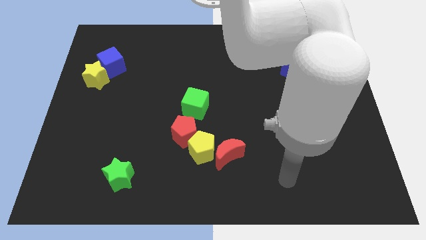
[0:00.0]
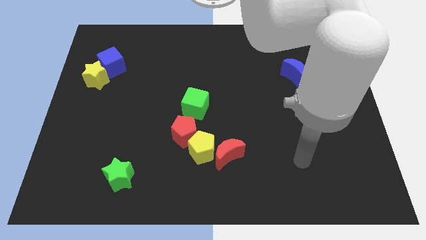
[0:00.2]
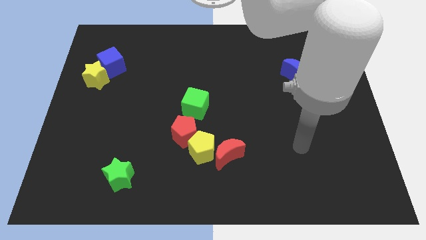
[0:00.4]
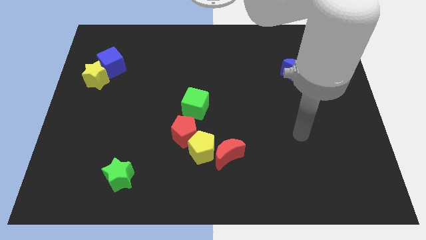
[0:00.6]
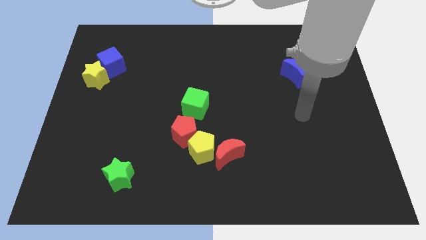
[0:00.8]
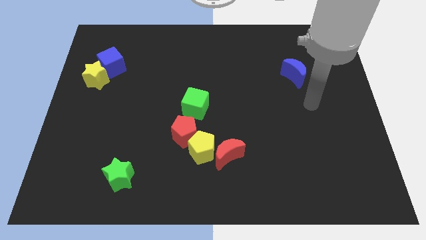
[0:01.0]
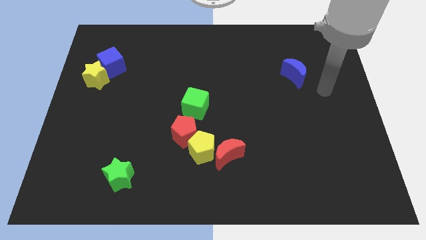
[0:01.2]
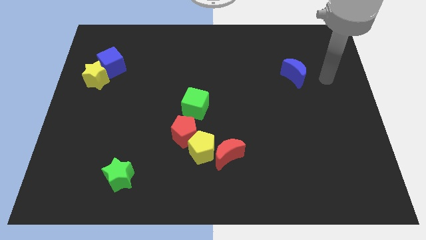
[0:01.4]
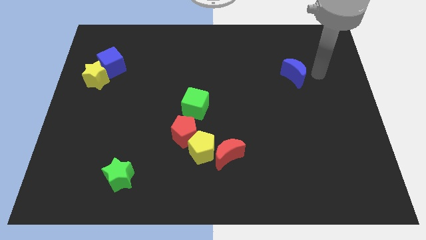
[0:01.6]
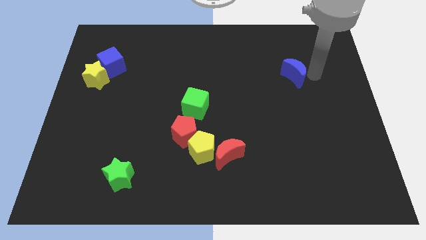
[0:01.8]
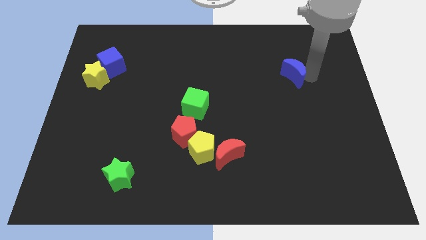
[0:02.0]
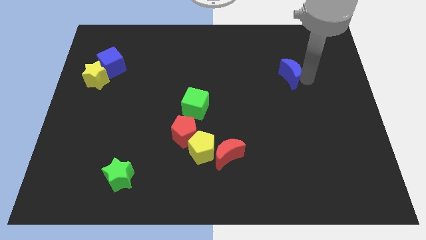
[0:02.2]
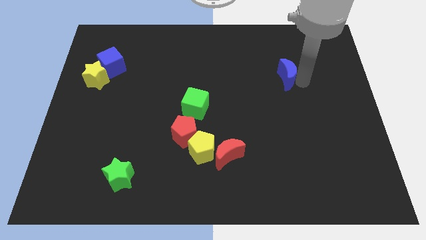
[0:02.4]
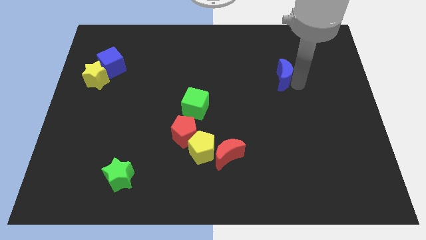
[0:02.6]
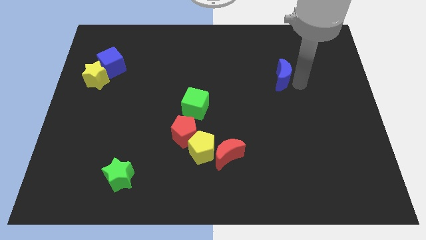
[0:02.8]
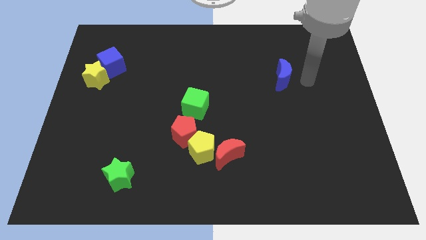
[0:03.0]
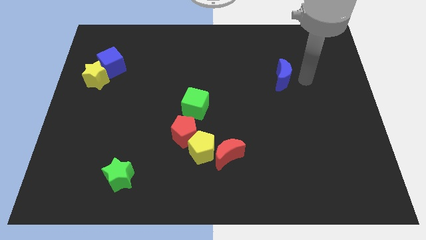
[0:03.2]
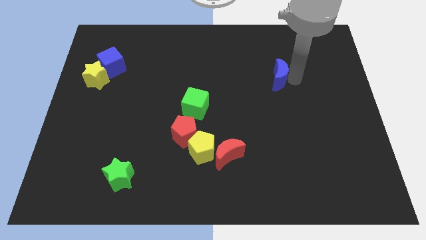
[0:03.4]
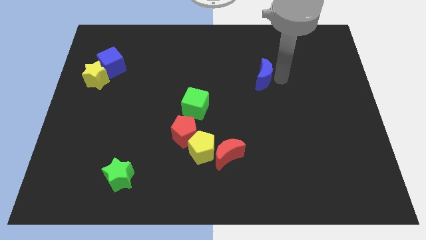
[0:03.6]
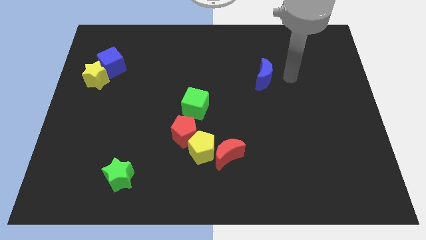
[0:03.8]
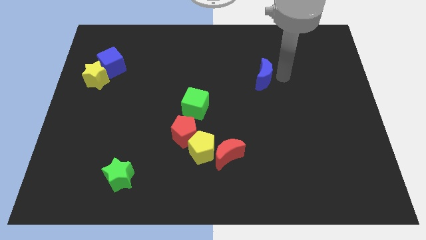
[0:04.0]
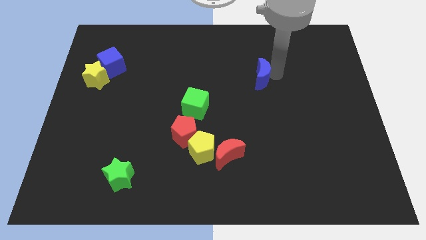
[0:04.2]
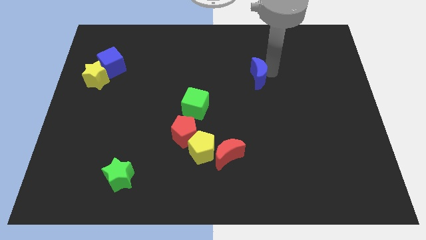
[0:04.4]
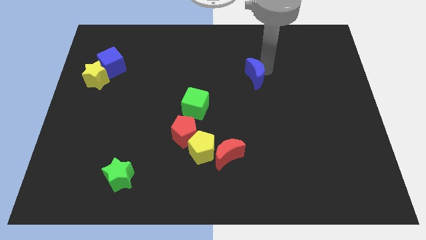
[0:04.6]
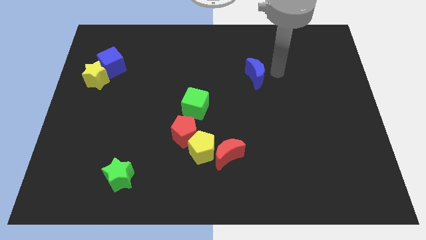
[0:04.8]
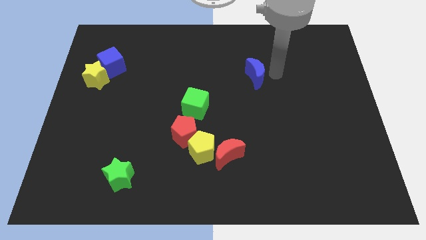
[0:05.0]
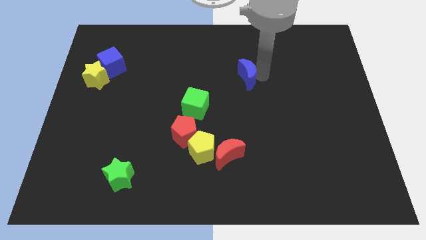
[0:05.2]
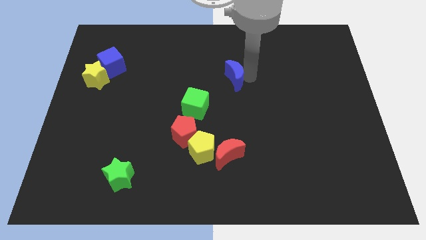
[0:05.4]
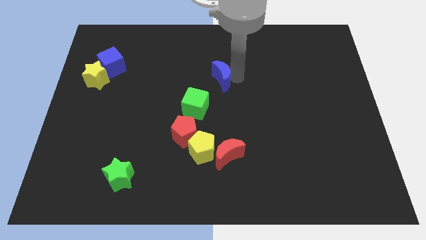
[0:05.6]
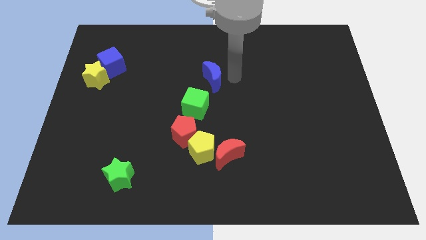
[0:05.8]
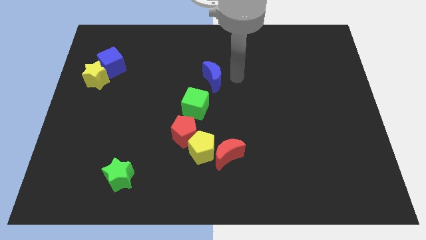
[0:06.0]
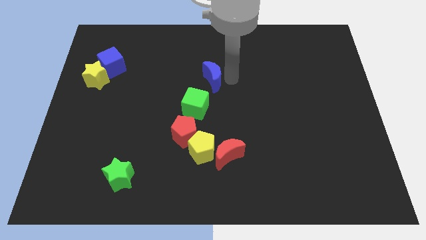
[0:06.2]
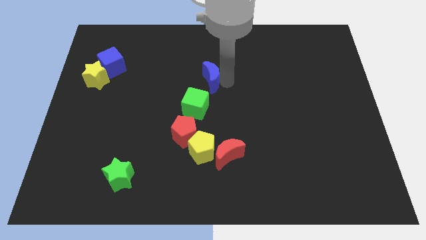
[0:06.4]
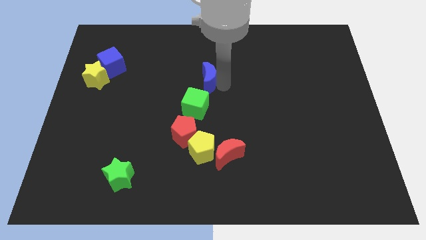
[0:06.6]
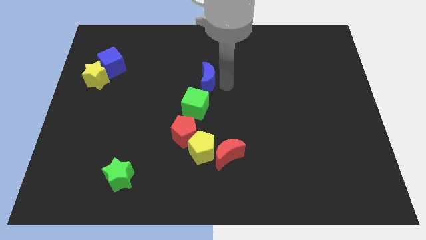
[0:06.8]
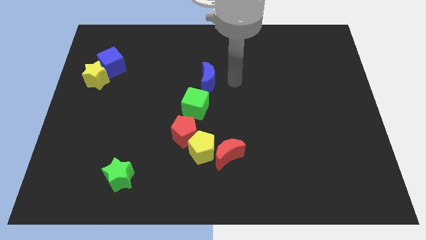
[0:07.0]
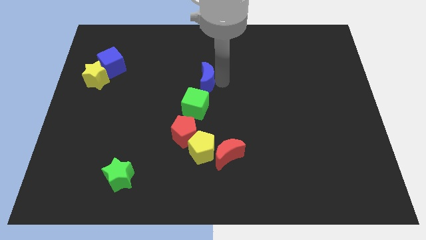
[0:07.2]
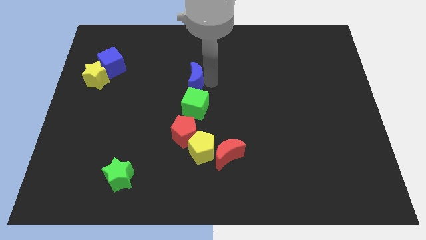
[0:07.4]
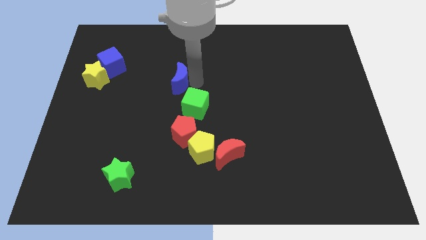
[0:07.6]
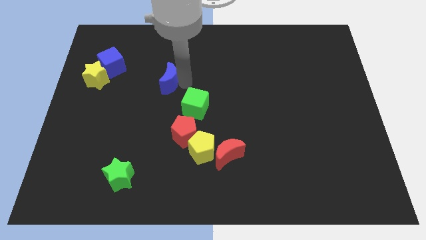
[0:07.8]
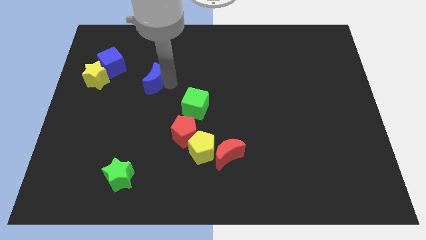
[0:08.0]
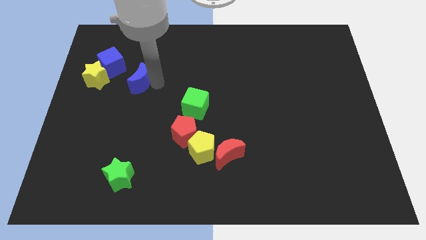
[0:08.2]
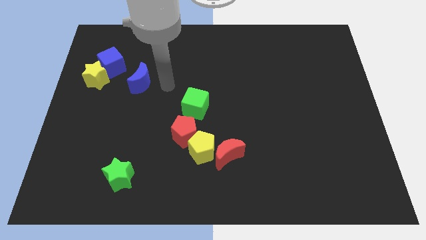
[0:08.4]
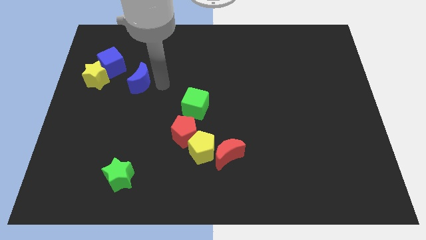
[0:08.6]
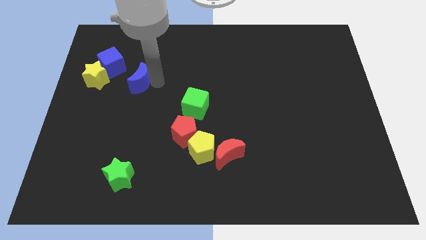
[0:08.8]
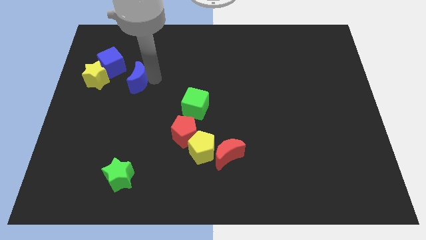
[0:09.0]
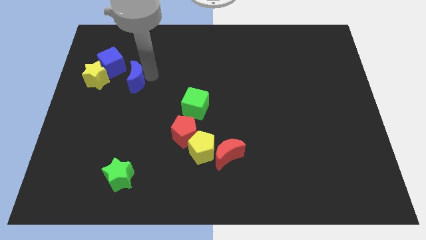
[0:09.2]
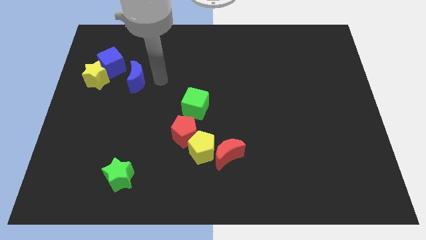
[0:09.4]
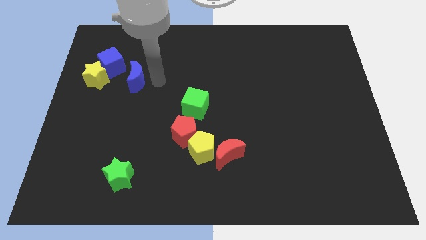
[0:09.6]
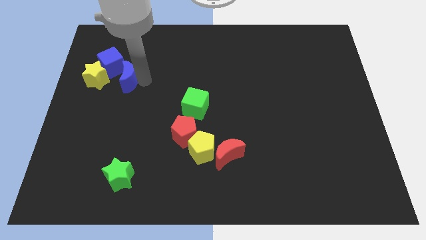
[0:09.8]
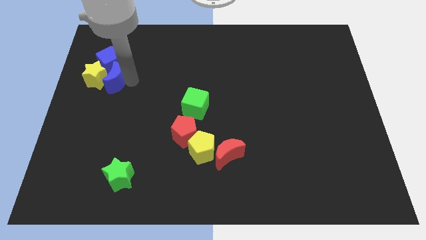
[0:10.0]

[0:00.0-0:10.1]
move the blue moon to the yellow star

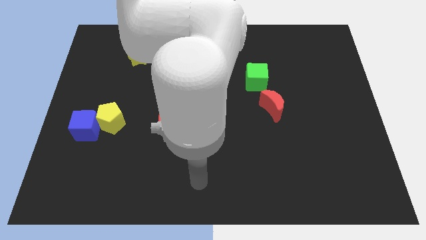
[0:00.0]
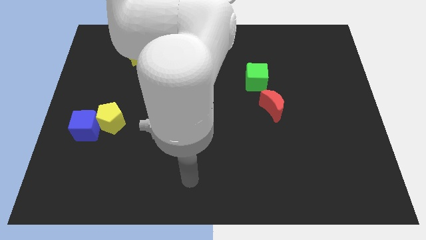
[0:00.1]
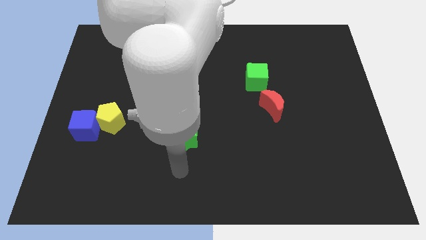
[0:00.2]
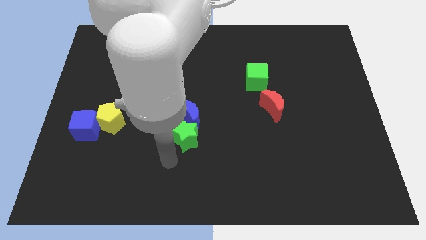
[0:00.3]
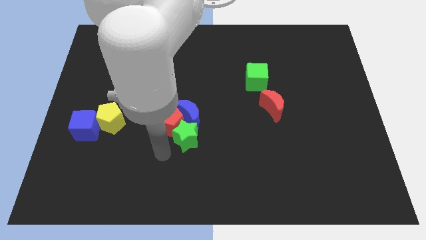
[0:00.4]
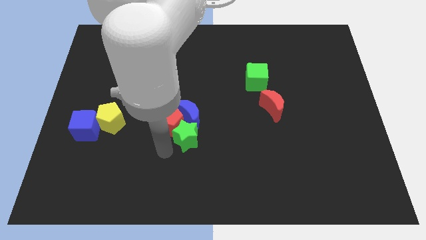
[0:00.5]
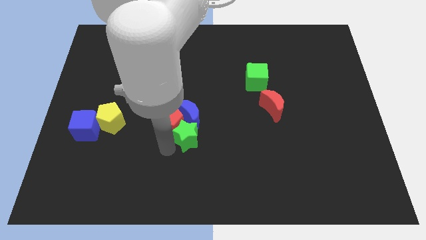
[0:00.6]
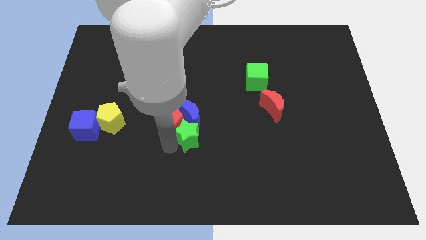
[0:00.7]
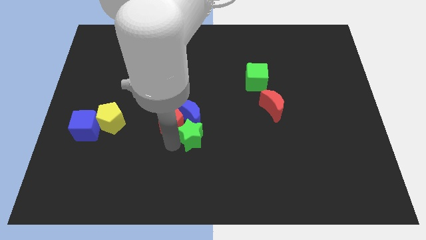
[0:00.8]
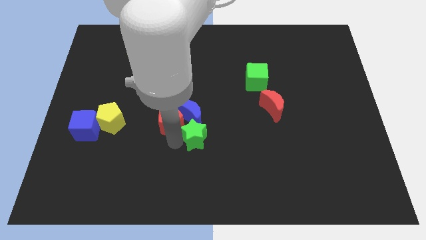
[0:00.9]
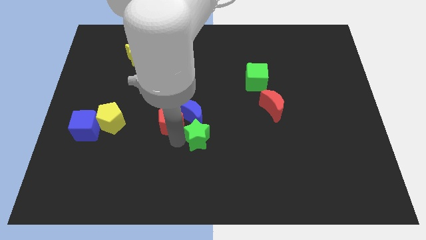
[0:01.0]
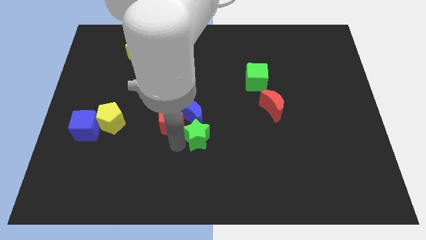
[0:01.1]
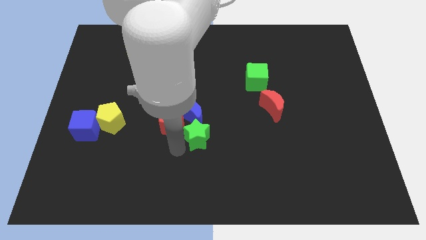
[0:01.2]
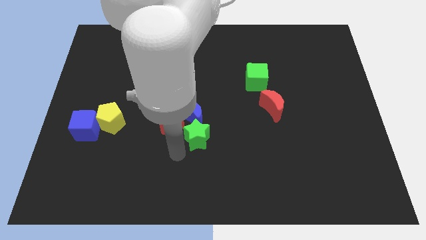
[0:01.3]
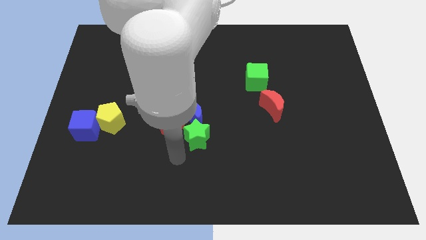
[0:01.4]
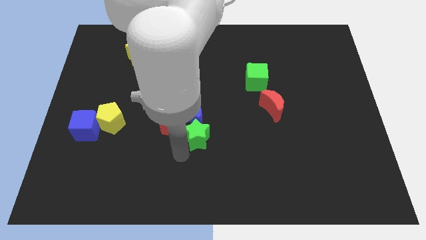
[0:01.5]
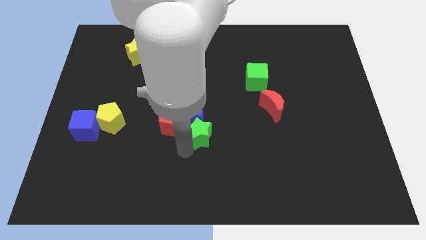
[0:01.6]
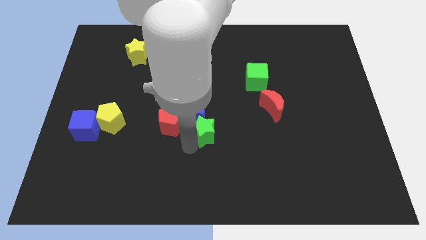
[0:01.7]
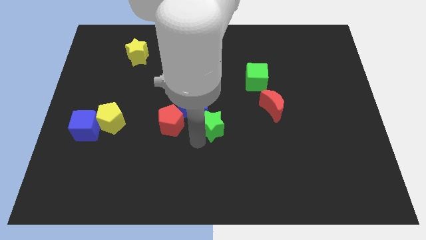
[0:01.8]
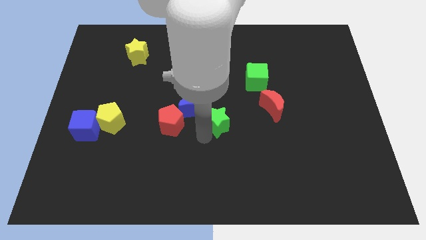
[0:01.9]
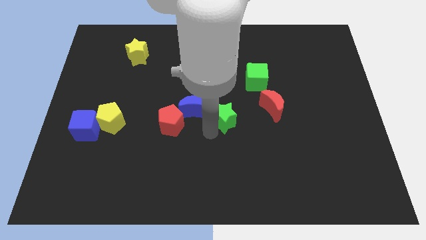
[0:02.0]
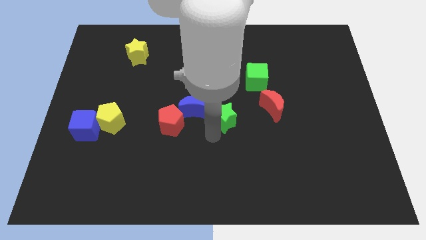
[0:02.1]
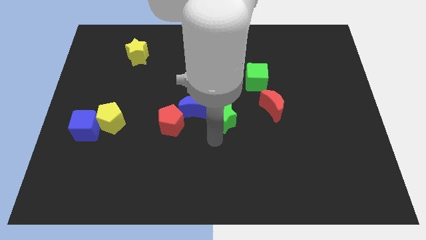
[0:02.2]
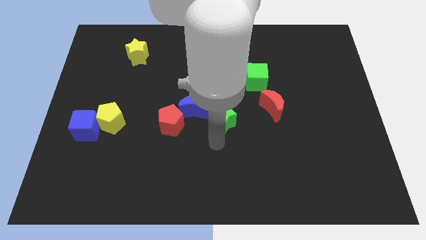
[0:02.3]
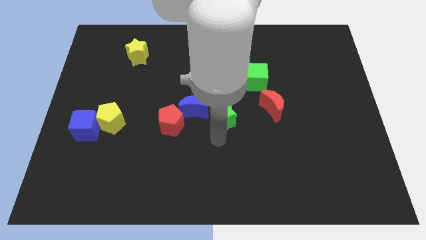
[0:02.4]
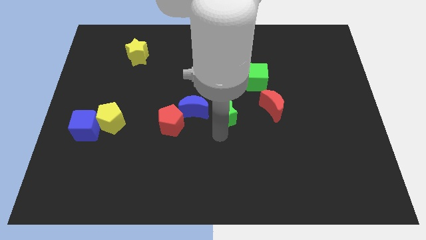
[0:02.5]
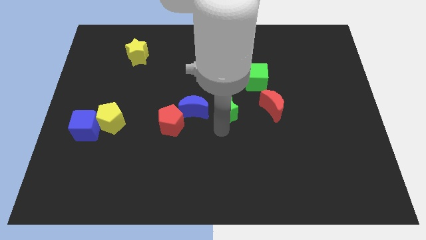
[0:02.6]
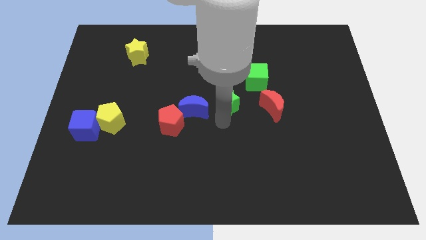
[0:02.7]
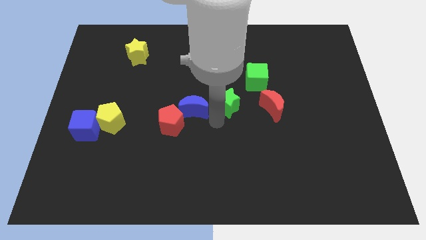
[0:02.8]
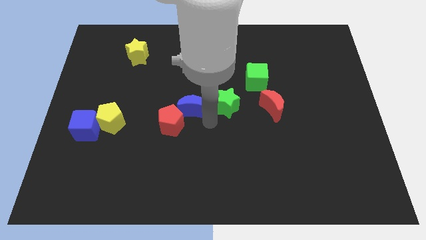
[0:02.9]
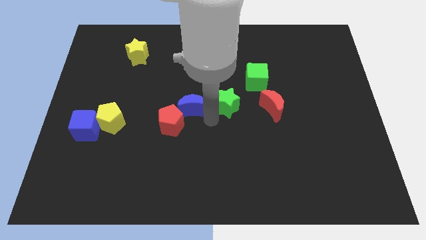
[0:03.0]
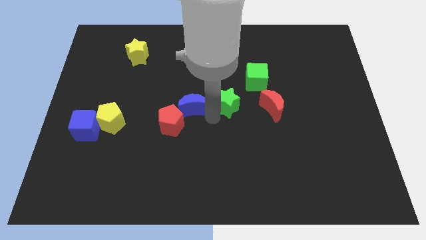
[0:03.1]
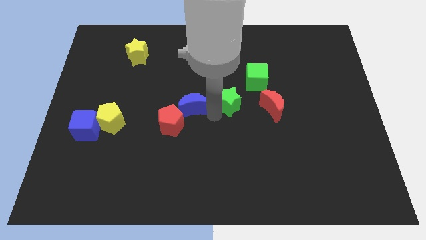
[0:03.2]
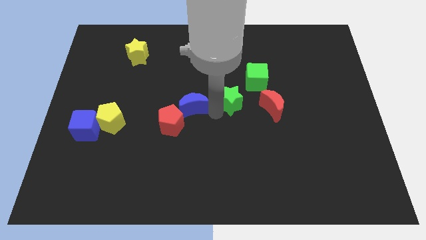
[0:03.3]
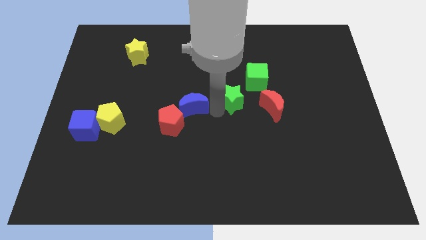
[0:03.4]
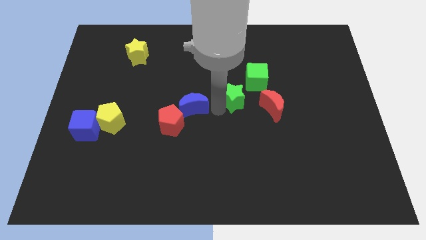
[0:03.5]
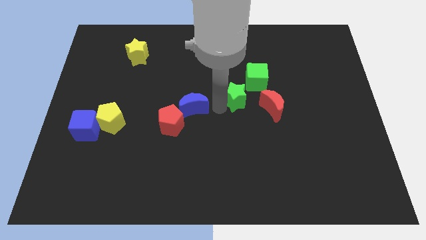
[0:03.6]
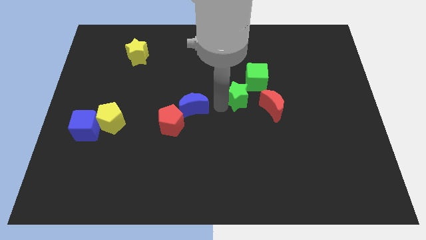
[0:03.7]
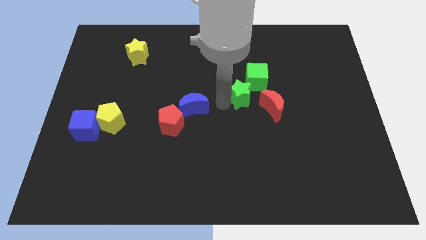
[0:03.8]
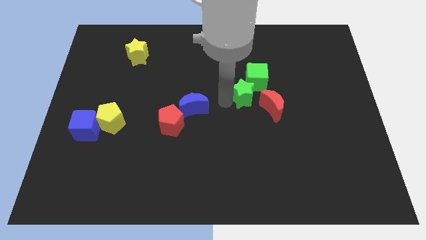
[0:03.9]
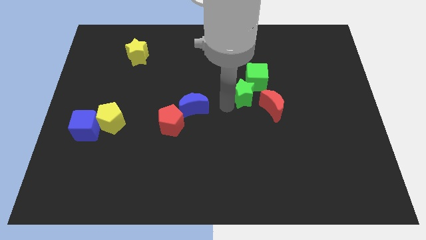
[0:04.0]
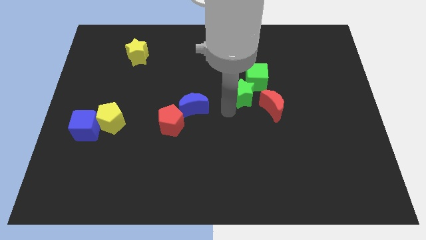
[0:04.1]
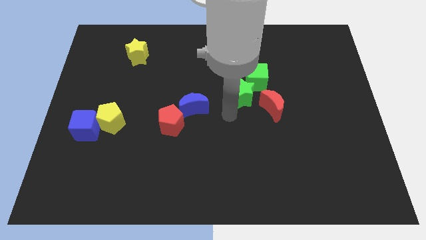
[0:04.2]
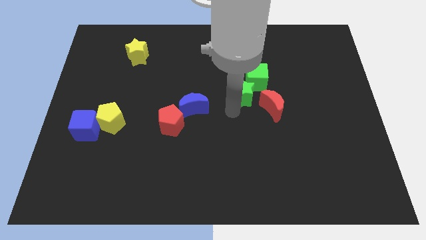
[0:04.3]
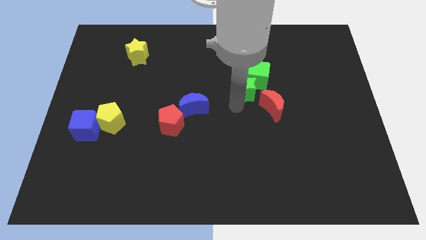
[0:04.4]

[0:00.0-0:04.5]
put the green star towards the green cube
